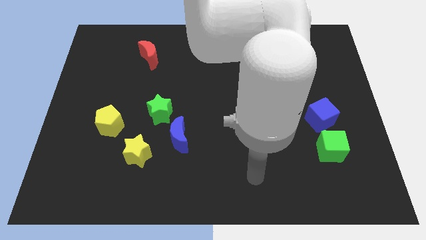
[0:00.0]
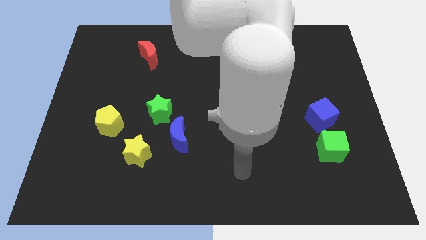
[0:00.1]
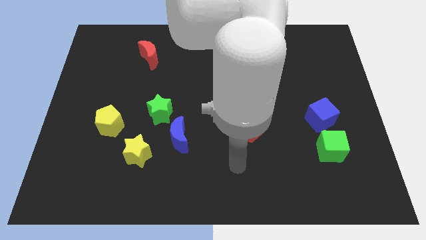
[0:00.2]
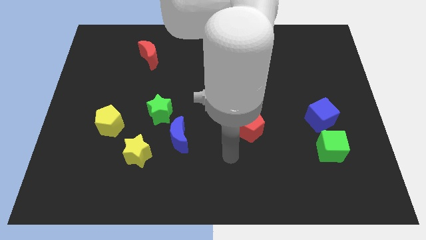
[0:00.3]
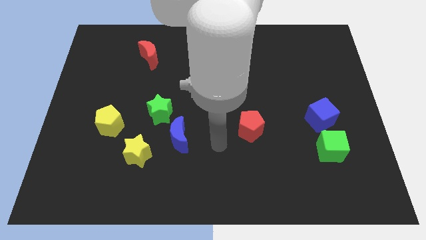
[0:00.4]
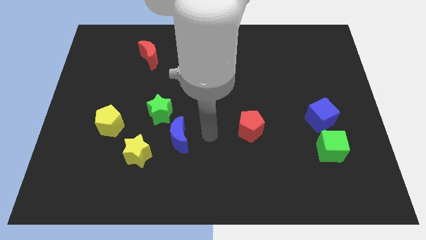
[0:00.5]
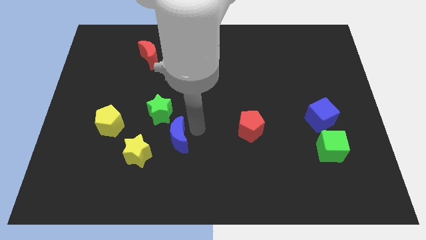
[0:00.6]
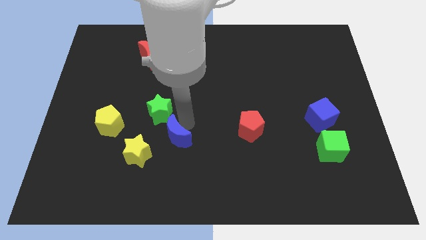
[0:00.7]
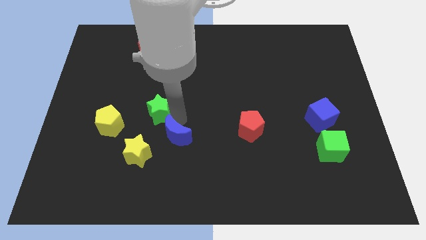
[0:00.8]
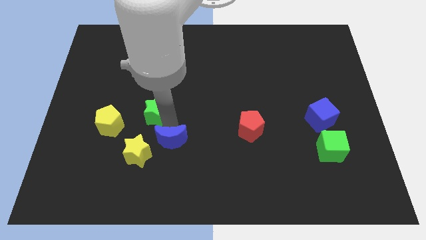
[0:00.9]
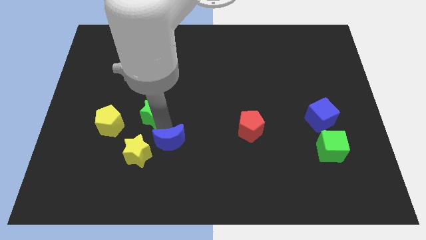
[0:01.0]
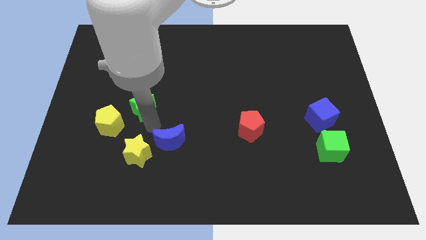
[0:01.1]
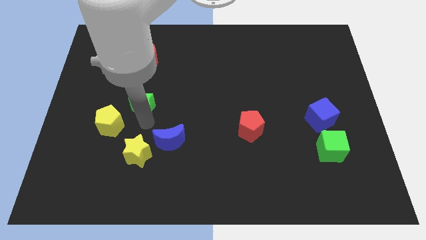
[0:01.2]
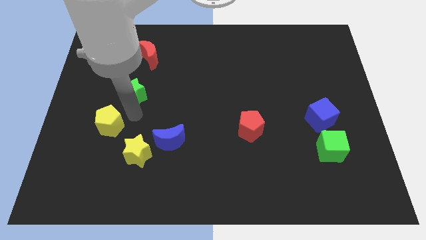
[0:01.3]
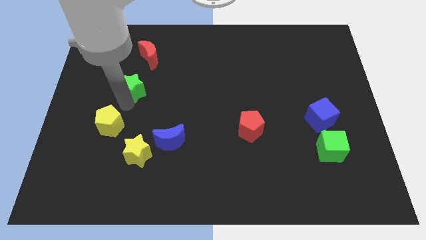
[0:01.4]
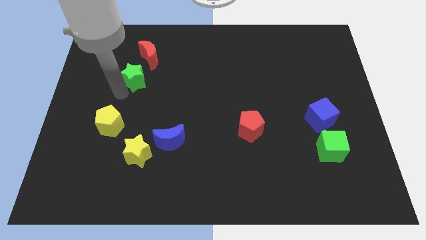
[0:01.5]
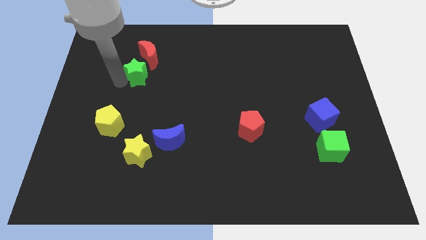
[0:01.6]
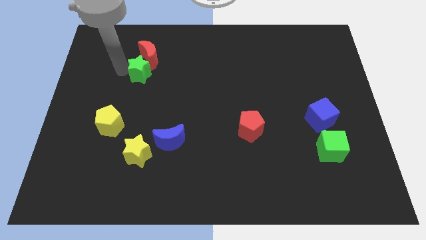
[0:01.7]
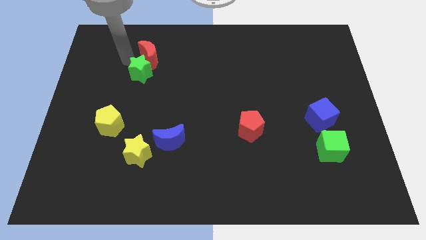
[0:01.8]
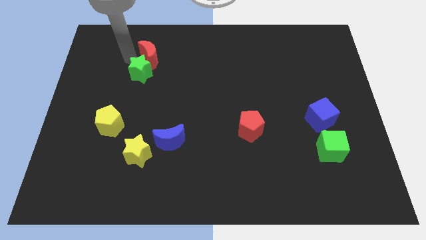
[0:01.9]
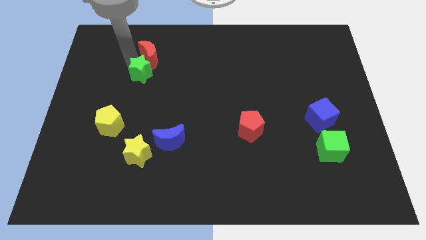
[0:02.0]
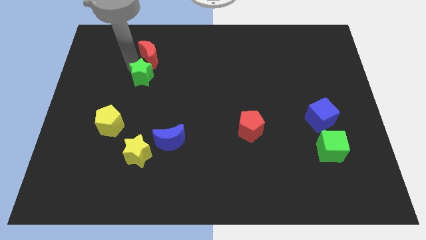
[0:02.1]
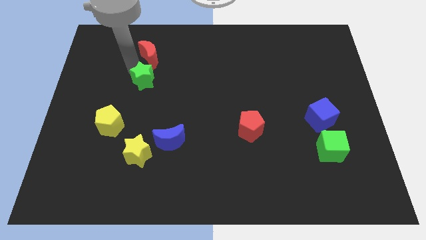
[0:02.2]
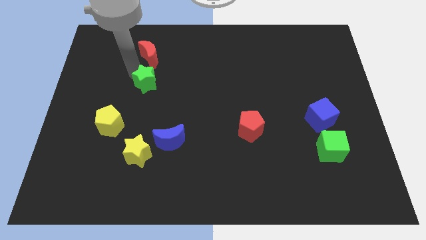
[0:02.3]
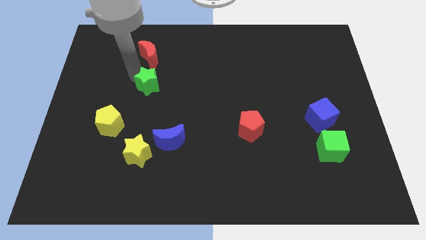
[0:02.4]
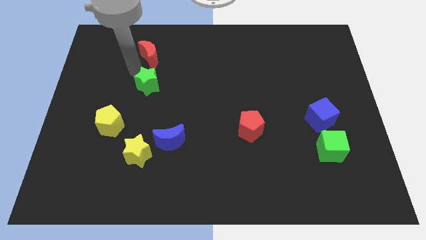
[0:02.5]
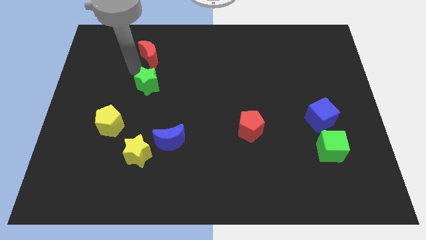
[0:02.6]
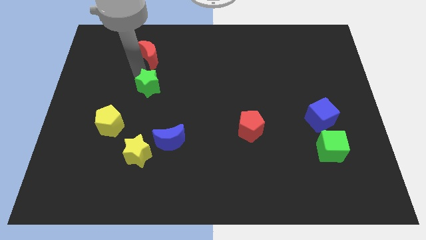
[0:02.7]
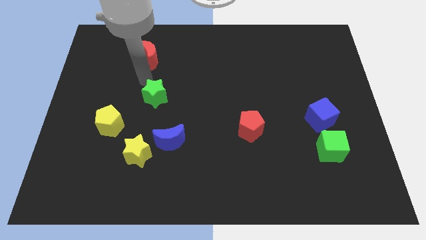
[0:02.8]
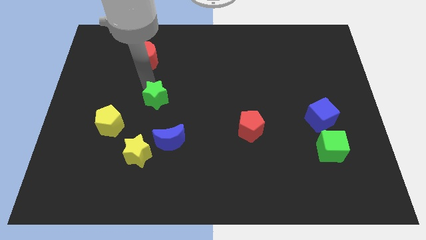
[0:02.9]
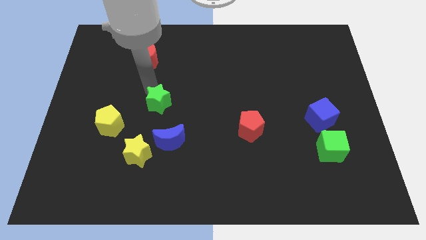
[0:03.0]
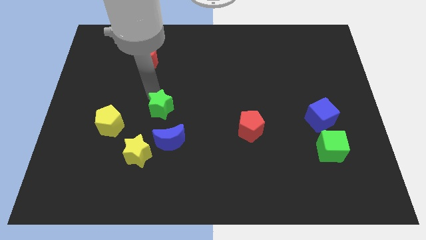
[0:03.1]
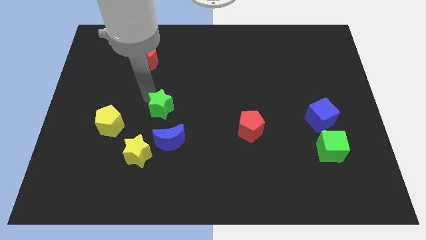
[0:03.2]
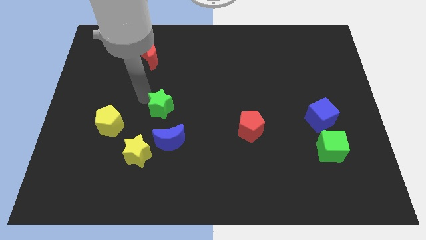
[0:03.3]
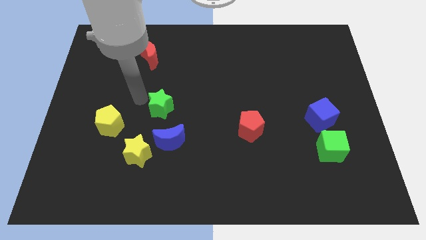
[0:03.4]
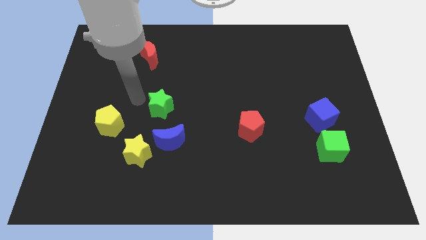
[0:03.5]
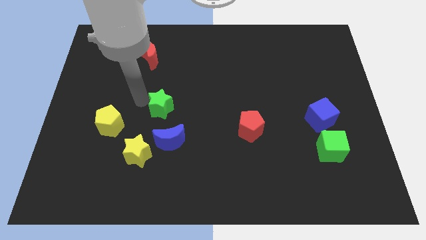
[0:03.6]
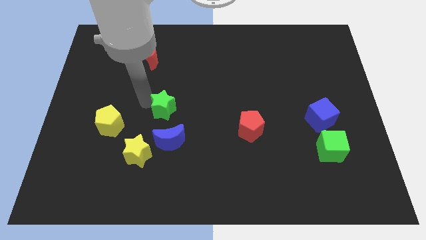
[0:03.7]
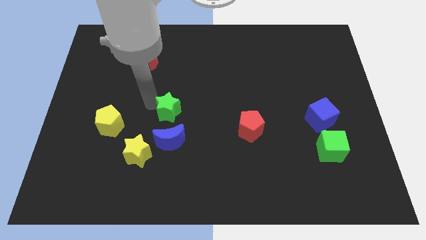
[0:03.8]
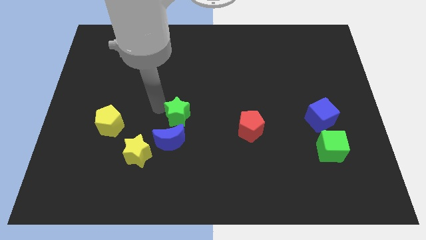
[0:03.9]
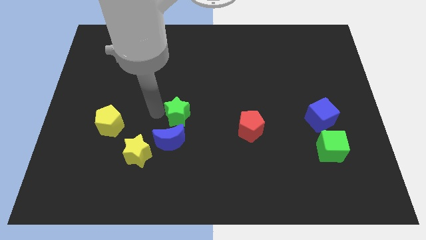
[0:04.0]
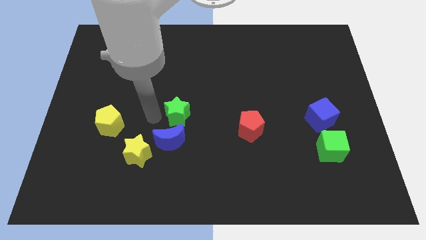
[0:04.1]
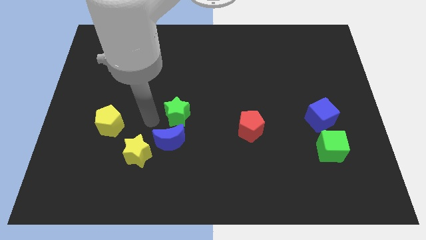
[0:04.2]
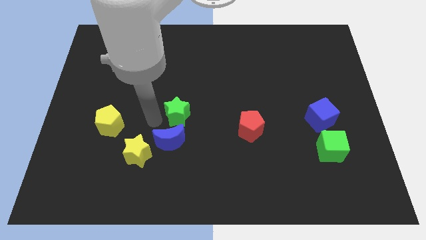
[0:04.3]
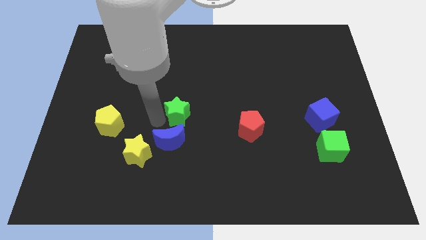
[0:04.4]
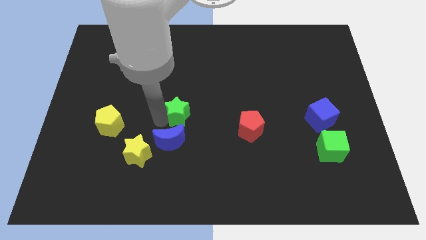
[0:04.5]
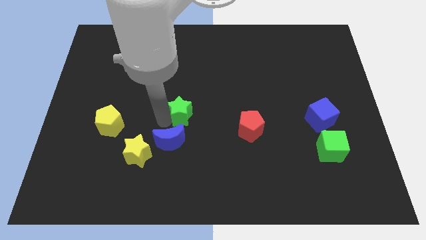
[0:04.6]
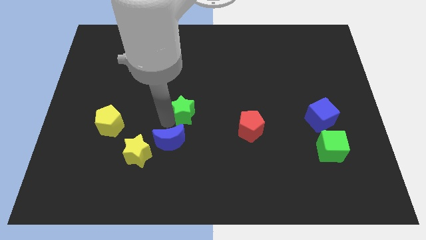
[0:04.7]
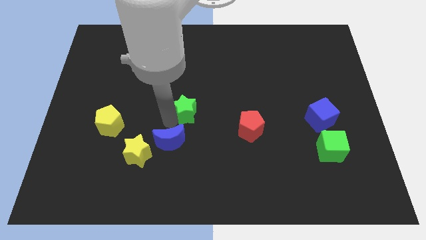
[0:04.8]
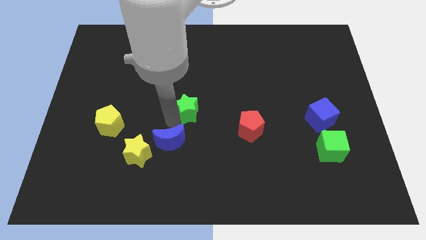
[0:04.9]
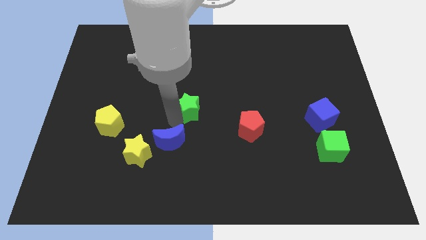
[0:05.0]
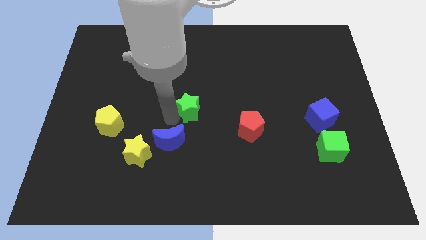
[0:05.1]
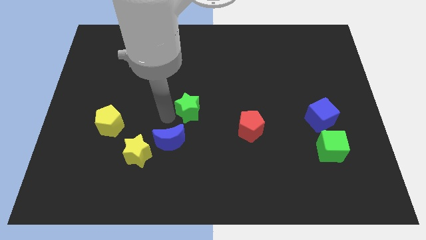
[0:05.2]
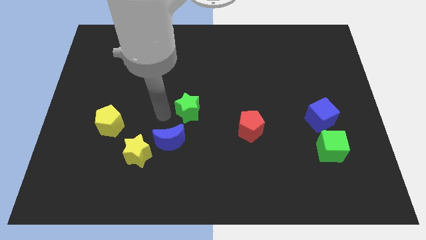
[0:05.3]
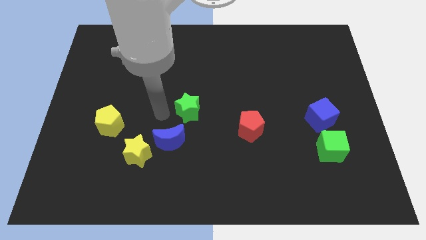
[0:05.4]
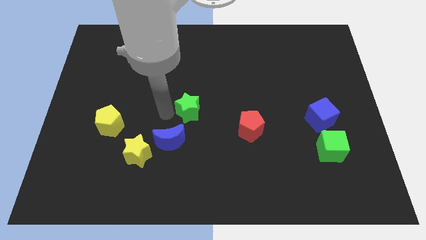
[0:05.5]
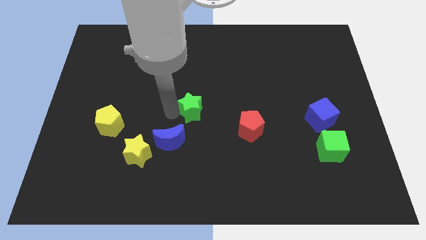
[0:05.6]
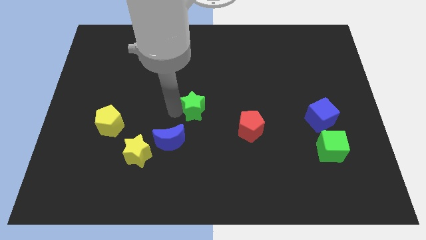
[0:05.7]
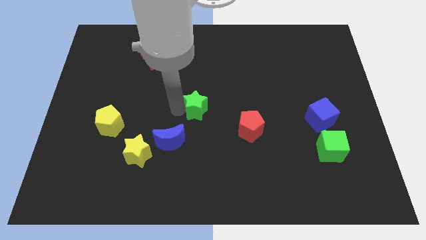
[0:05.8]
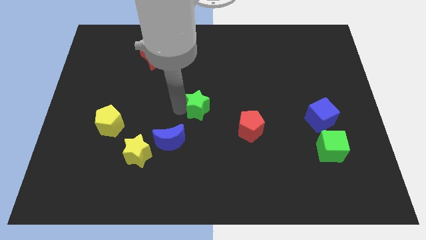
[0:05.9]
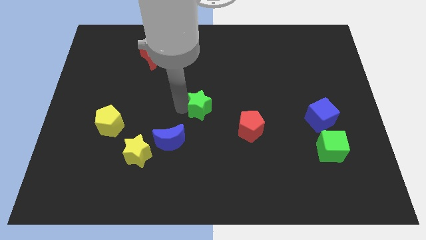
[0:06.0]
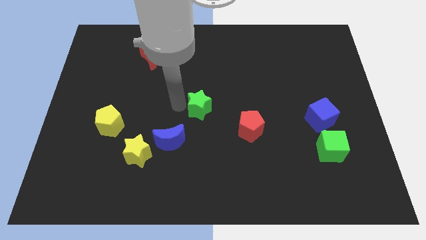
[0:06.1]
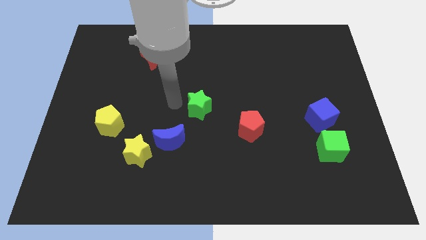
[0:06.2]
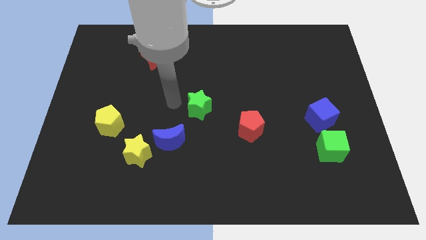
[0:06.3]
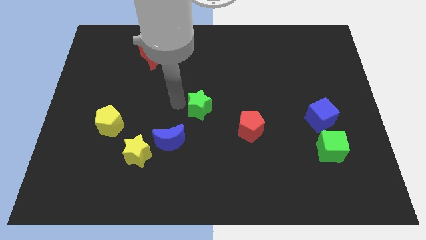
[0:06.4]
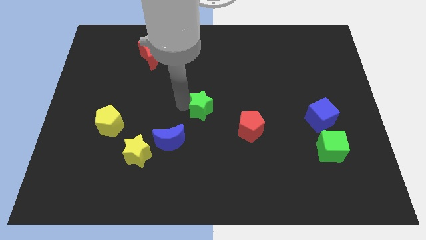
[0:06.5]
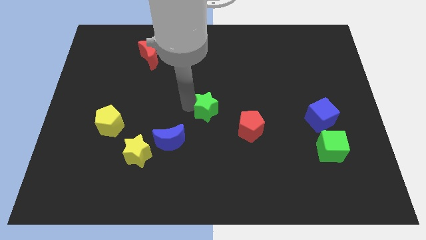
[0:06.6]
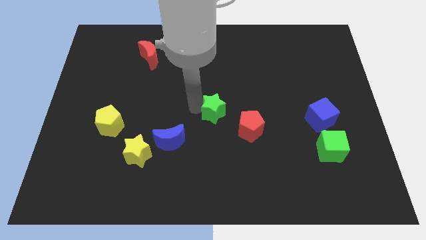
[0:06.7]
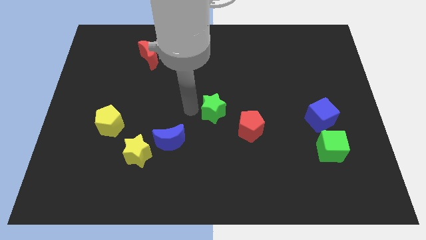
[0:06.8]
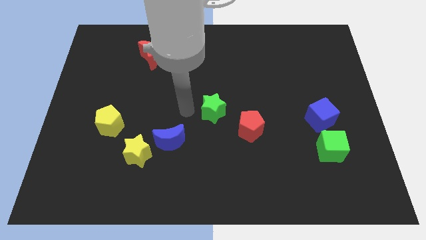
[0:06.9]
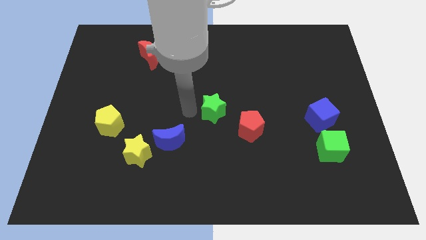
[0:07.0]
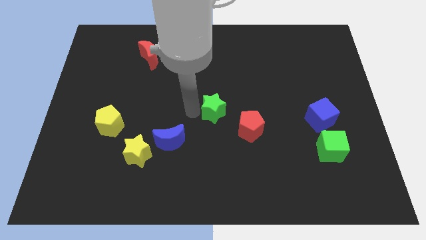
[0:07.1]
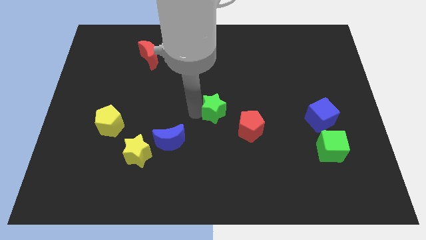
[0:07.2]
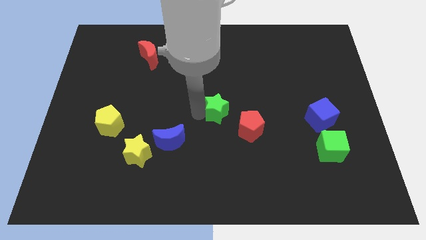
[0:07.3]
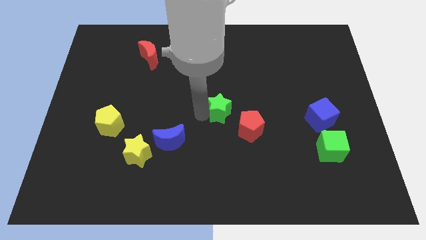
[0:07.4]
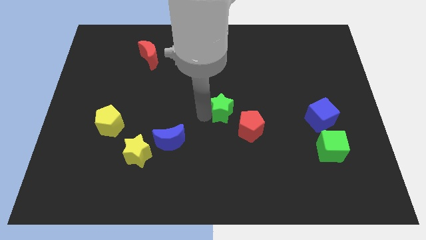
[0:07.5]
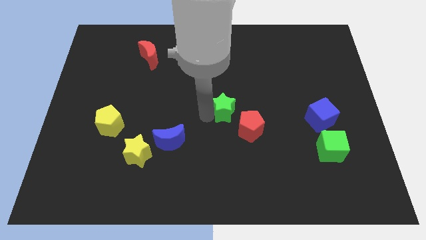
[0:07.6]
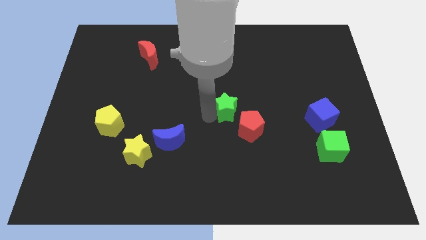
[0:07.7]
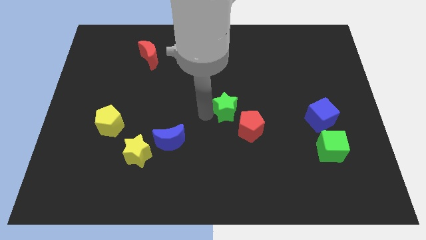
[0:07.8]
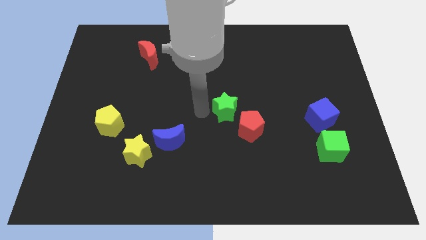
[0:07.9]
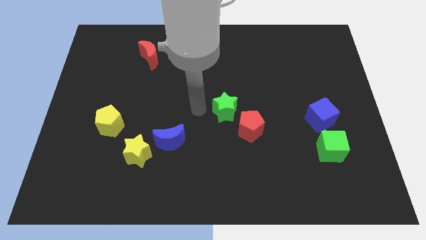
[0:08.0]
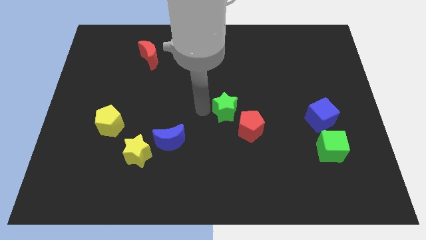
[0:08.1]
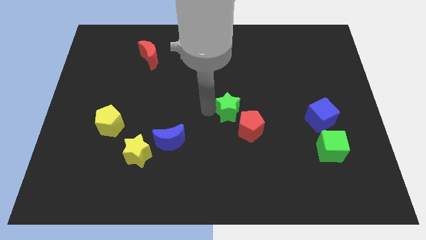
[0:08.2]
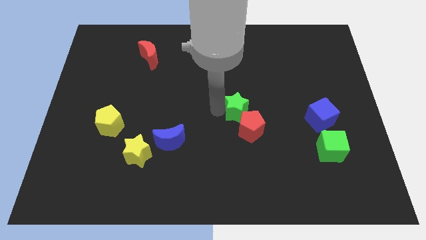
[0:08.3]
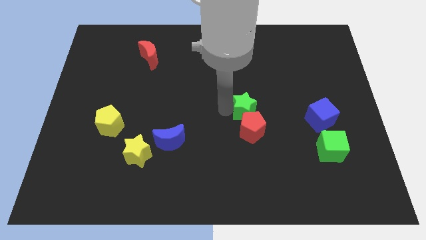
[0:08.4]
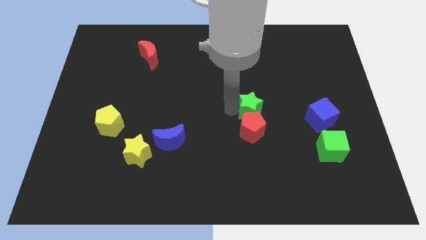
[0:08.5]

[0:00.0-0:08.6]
push the green star to the right
